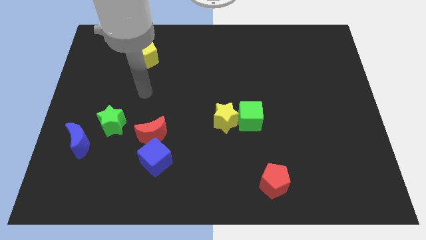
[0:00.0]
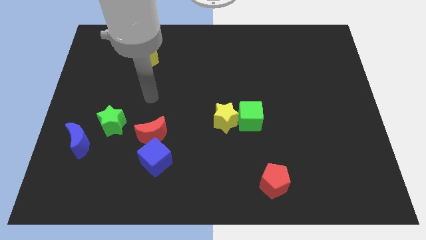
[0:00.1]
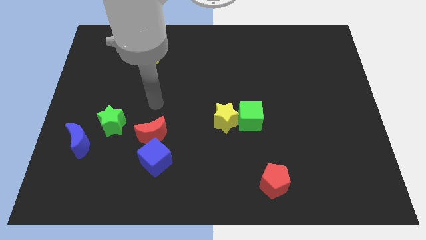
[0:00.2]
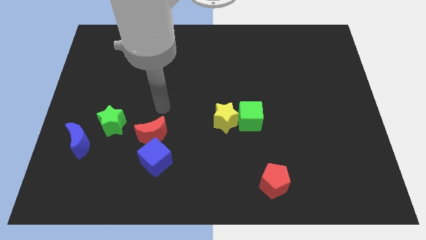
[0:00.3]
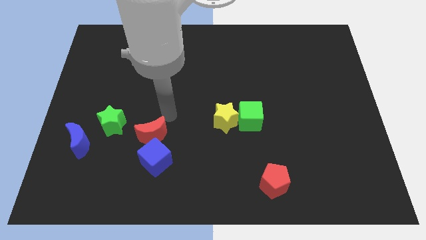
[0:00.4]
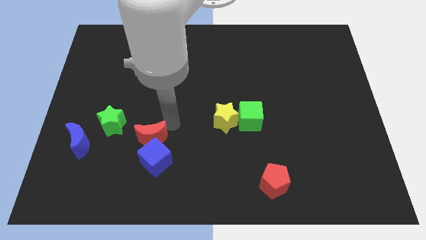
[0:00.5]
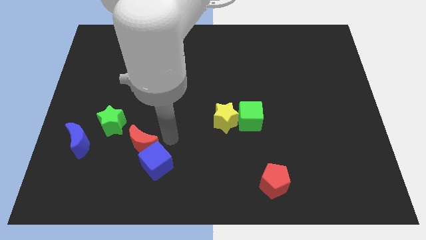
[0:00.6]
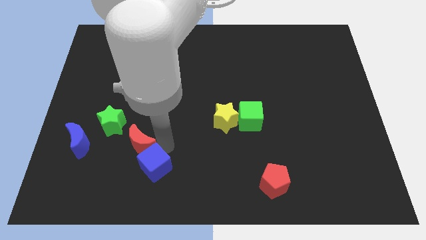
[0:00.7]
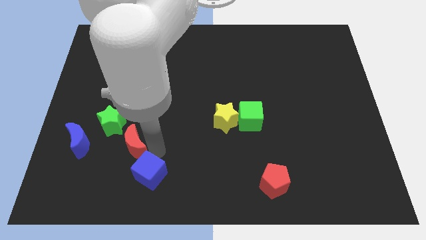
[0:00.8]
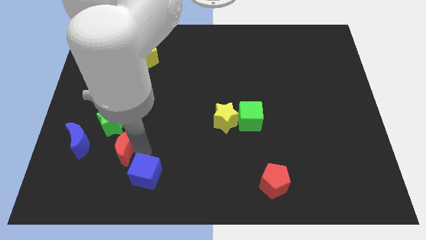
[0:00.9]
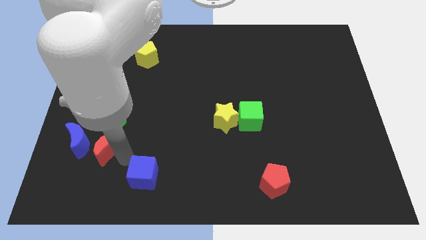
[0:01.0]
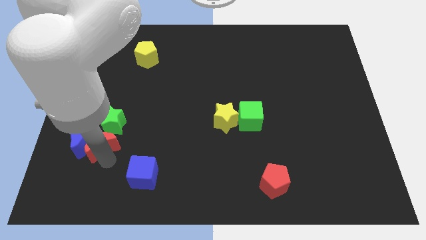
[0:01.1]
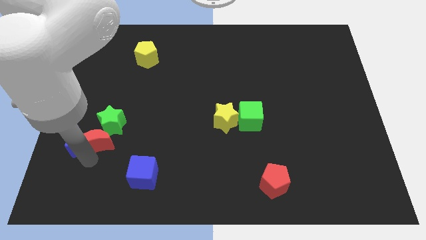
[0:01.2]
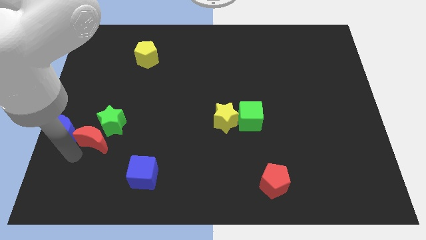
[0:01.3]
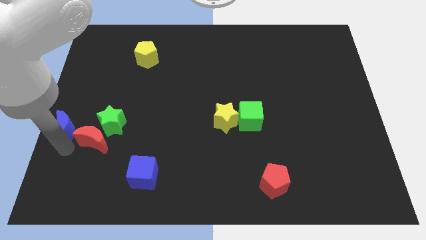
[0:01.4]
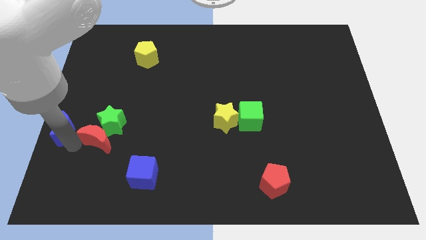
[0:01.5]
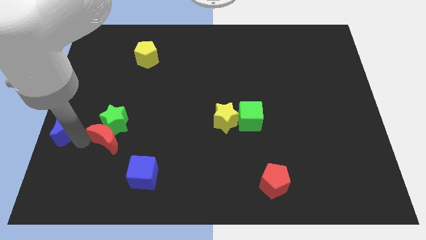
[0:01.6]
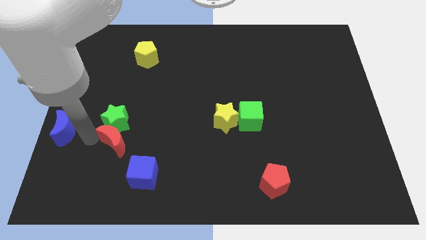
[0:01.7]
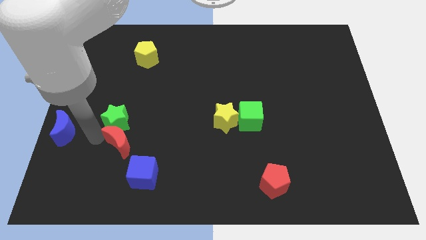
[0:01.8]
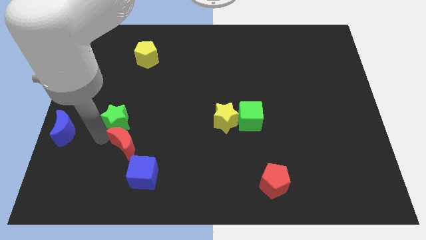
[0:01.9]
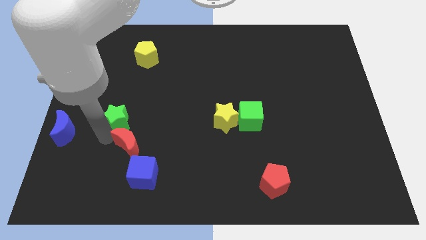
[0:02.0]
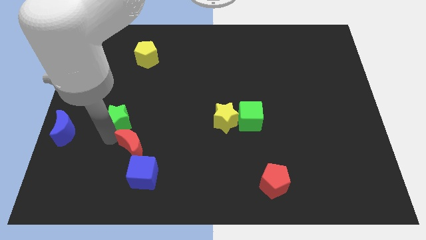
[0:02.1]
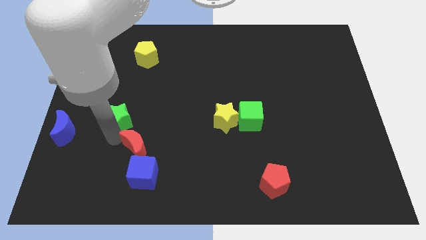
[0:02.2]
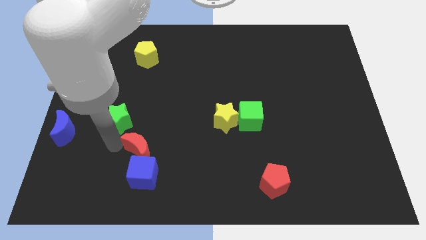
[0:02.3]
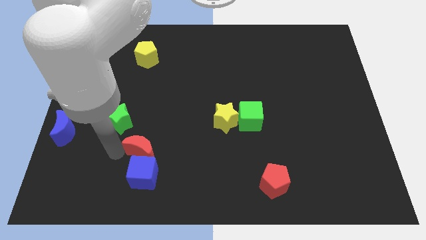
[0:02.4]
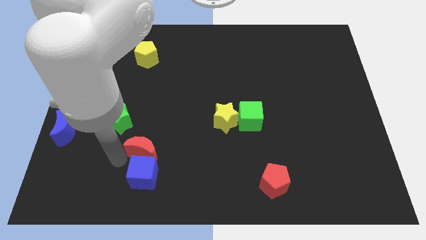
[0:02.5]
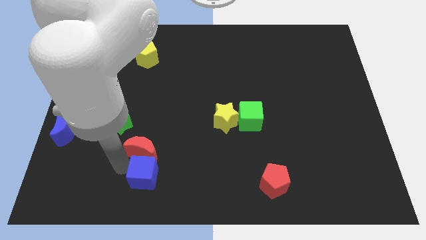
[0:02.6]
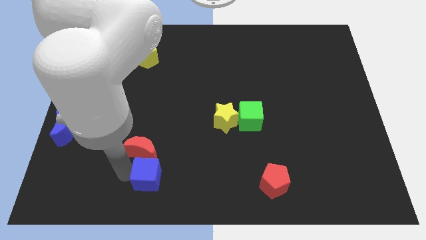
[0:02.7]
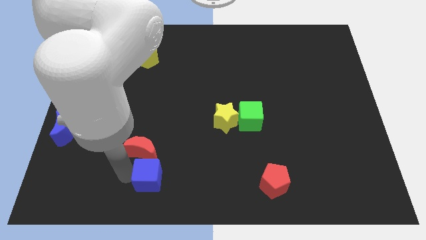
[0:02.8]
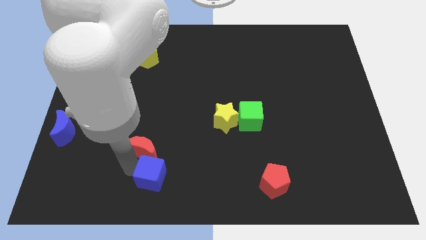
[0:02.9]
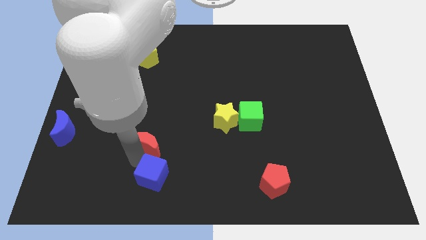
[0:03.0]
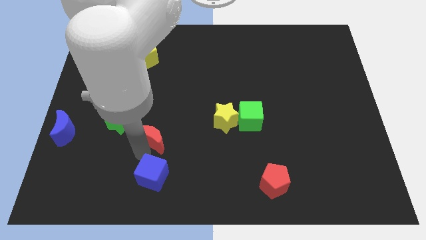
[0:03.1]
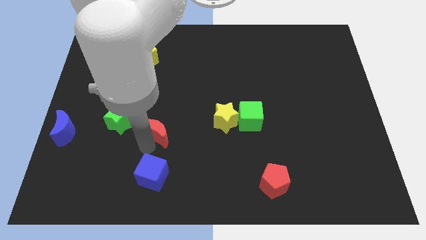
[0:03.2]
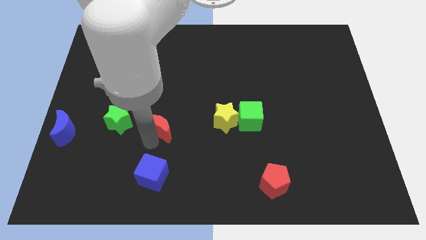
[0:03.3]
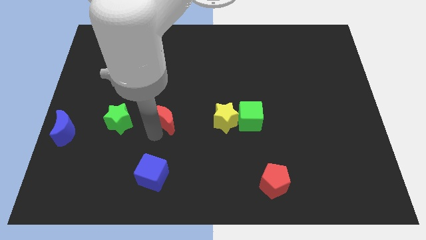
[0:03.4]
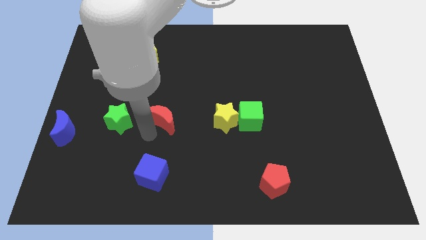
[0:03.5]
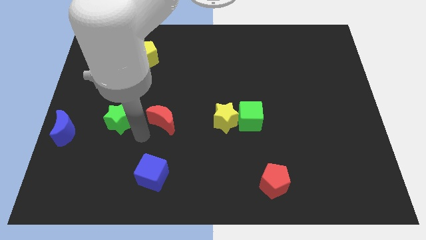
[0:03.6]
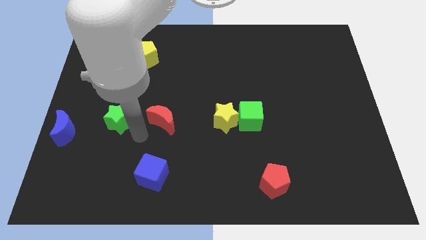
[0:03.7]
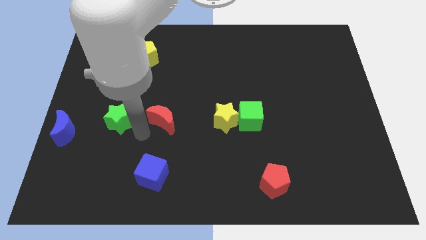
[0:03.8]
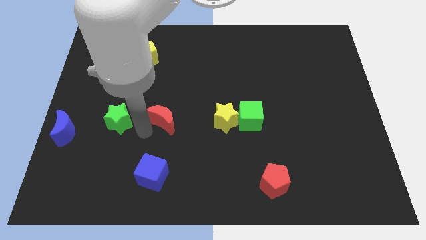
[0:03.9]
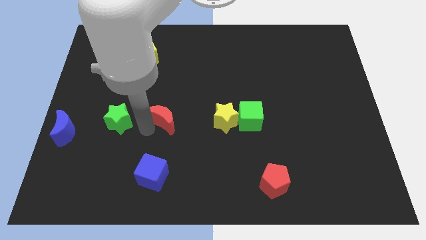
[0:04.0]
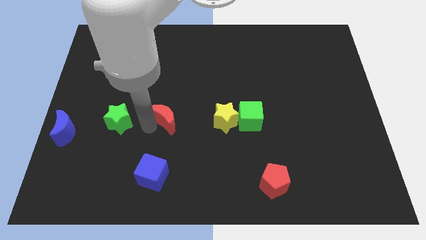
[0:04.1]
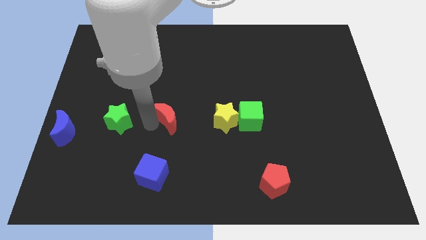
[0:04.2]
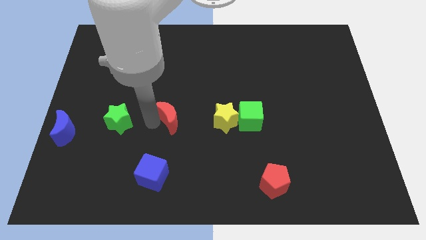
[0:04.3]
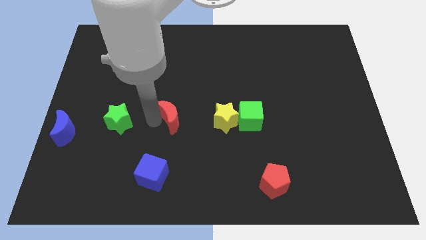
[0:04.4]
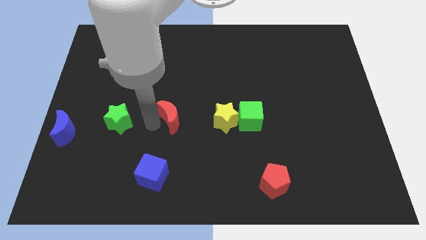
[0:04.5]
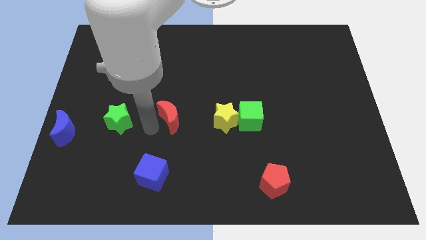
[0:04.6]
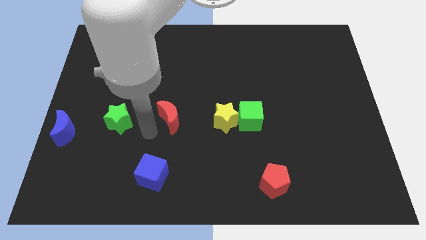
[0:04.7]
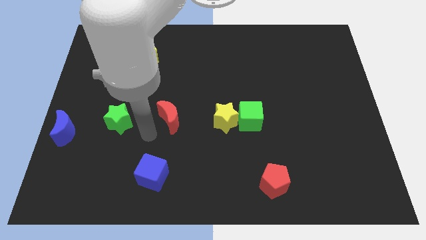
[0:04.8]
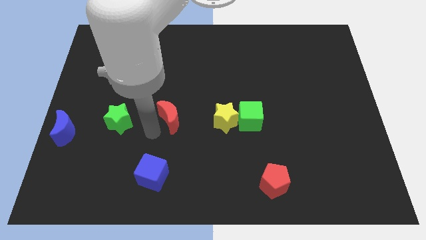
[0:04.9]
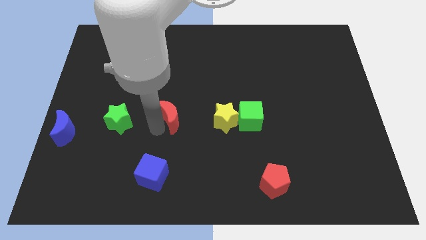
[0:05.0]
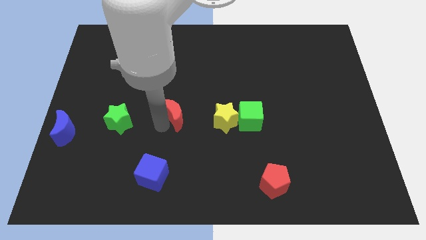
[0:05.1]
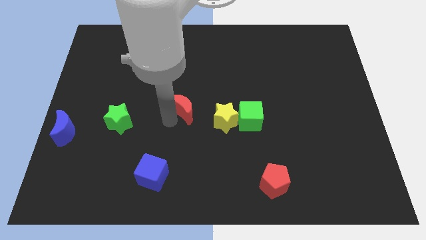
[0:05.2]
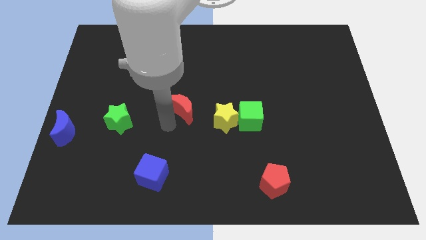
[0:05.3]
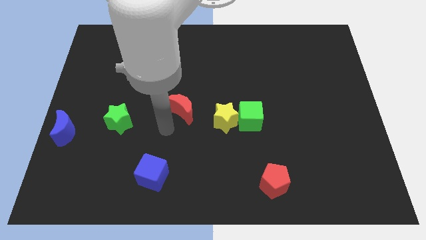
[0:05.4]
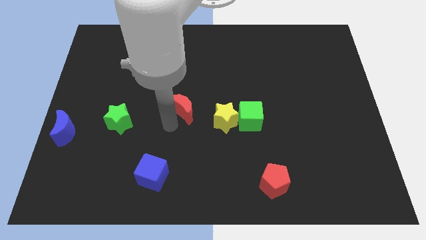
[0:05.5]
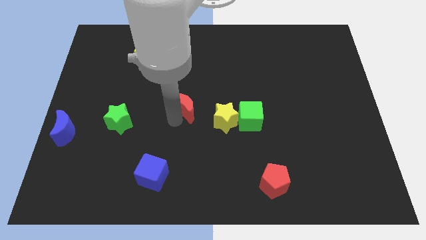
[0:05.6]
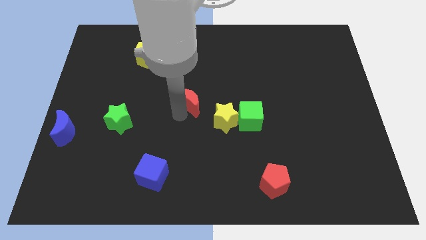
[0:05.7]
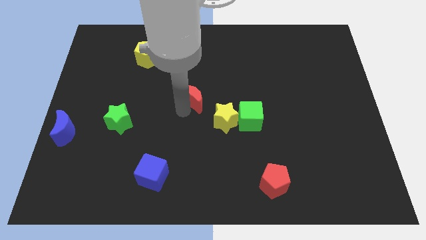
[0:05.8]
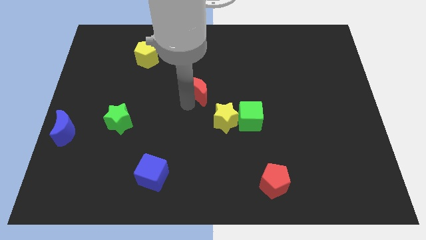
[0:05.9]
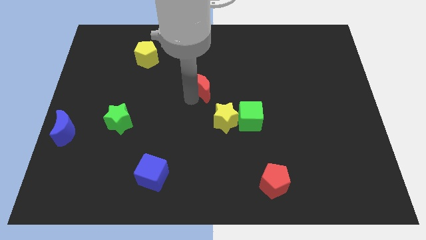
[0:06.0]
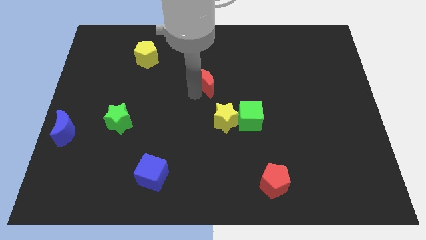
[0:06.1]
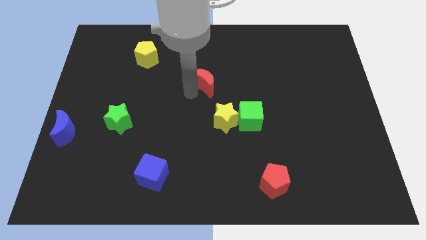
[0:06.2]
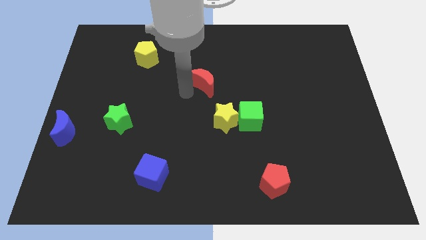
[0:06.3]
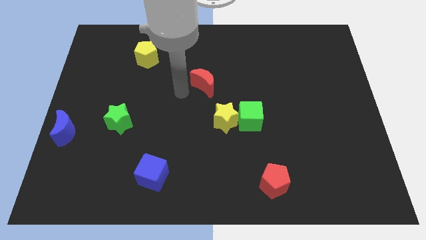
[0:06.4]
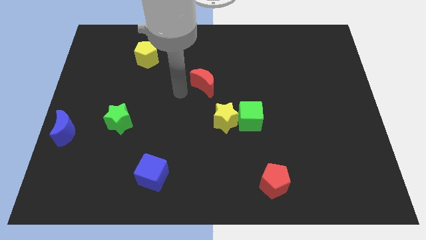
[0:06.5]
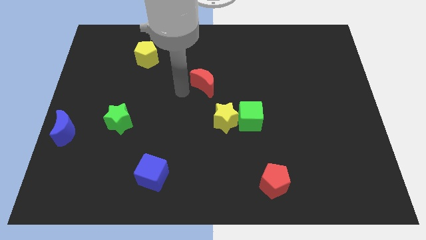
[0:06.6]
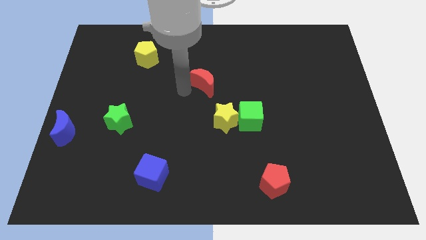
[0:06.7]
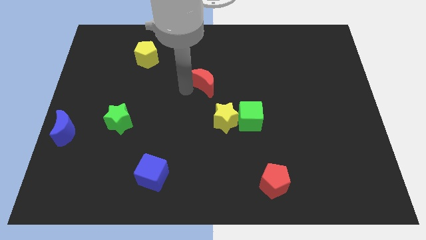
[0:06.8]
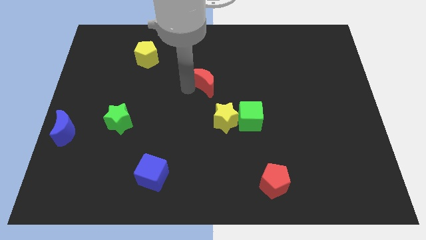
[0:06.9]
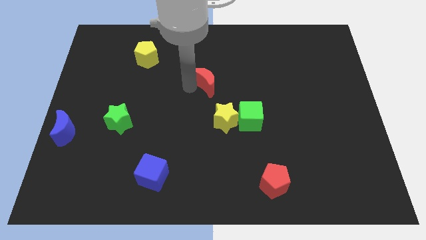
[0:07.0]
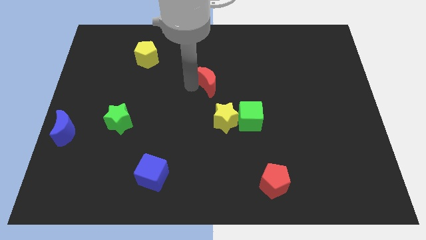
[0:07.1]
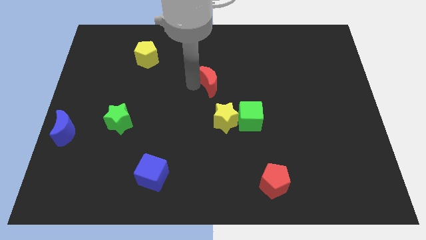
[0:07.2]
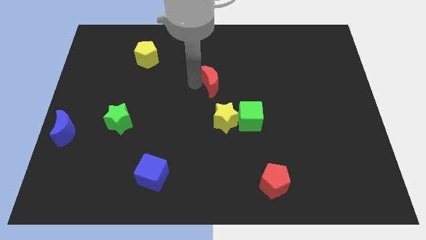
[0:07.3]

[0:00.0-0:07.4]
push the red moon diagonally up and to the right

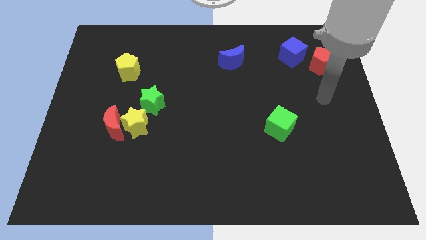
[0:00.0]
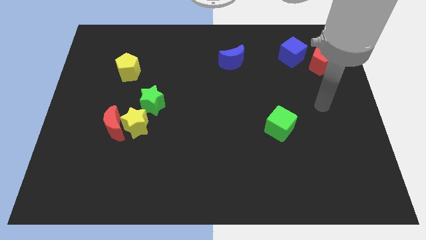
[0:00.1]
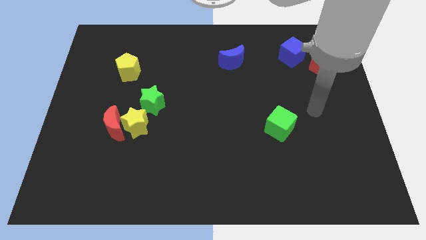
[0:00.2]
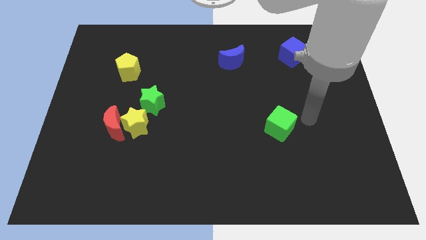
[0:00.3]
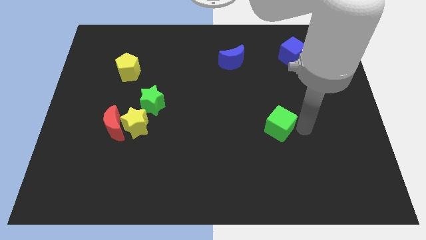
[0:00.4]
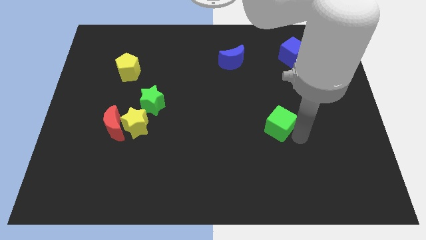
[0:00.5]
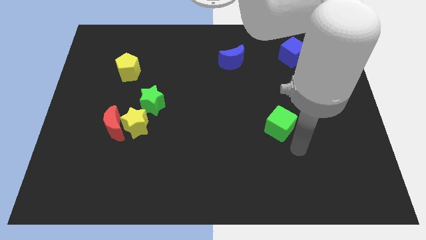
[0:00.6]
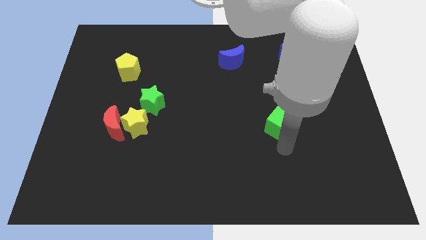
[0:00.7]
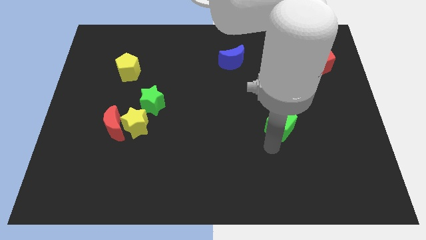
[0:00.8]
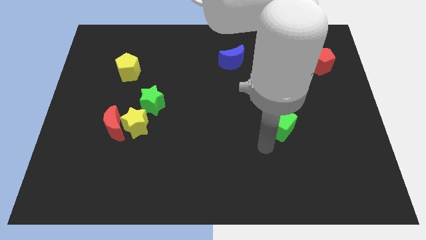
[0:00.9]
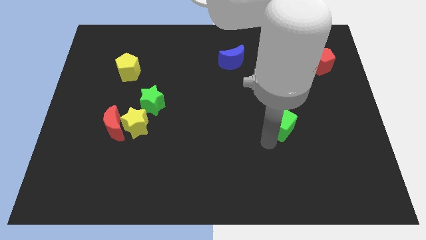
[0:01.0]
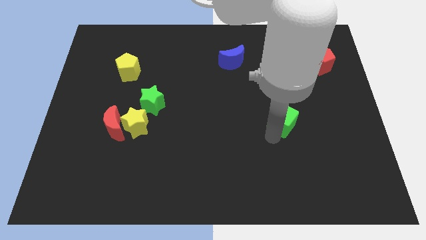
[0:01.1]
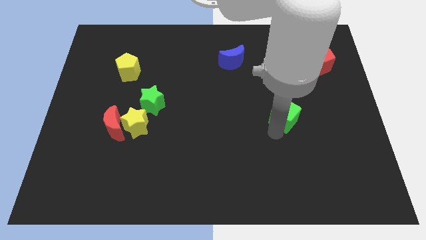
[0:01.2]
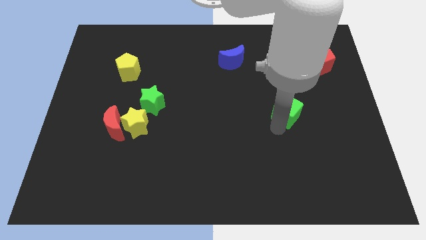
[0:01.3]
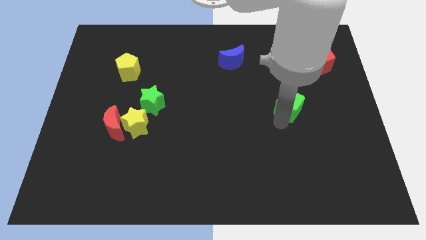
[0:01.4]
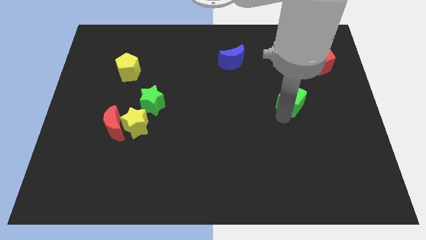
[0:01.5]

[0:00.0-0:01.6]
move the green cube upwards and to the right a little
